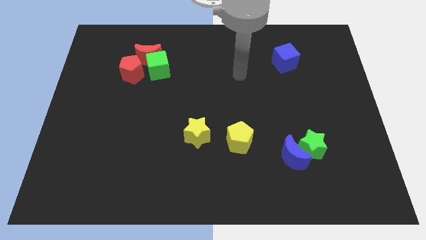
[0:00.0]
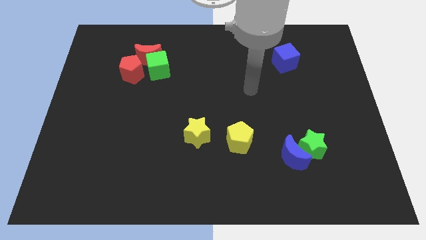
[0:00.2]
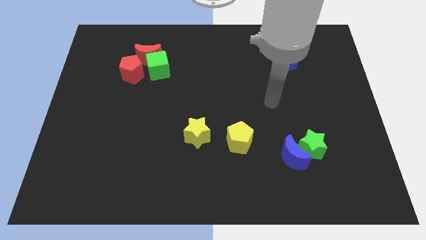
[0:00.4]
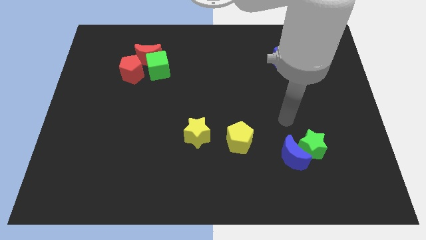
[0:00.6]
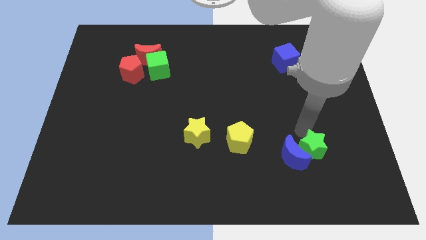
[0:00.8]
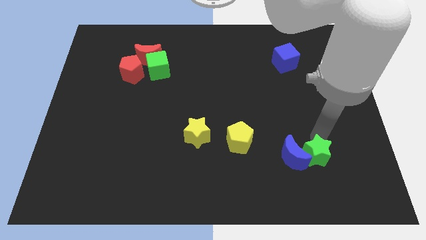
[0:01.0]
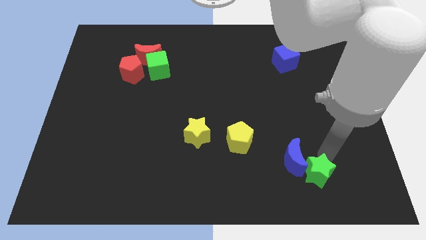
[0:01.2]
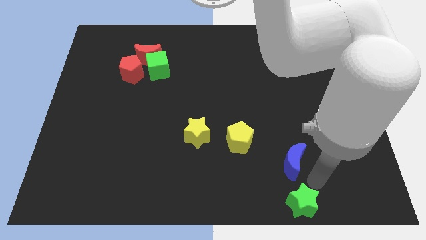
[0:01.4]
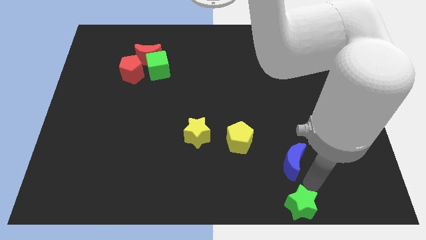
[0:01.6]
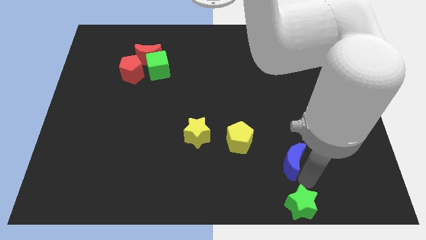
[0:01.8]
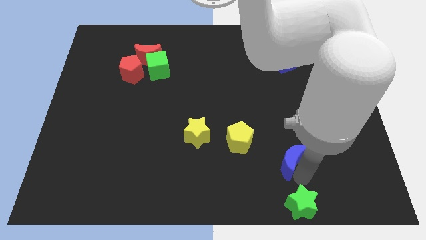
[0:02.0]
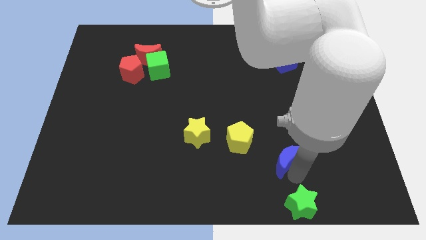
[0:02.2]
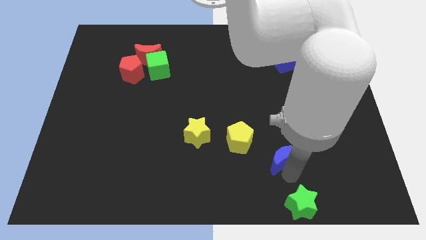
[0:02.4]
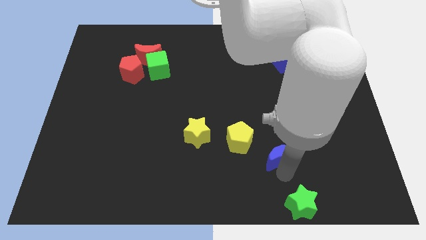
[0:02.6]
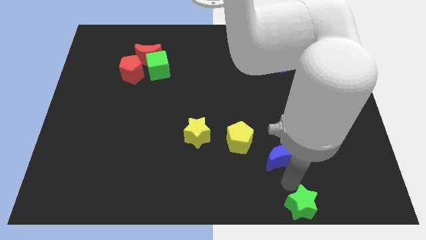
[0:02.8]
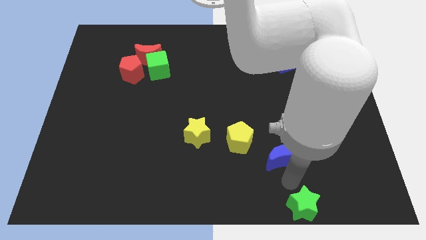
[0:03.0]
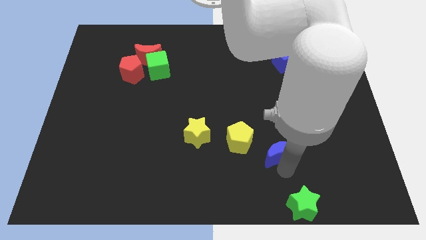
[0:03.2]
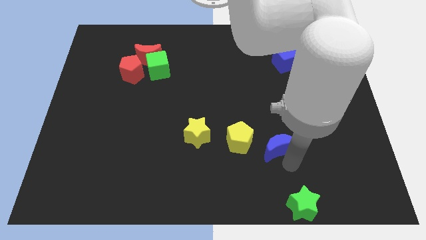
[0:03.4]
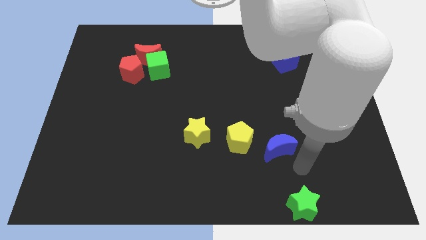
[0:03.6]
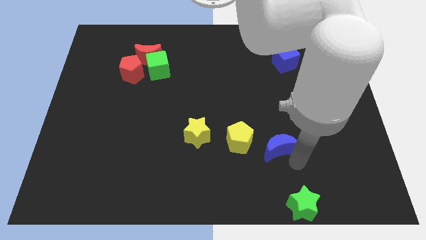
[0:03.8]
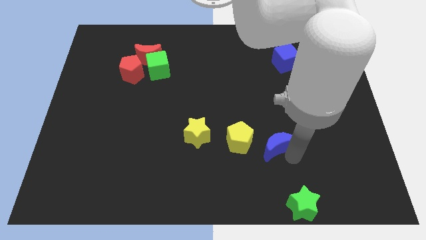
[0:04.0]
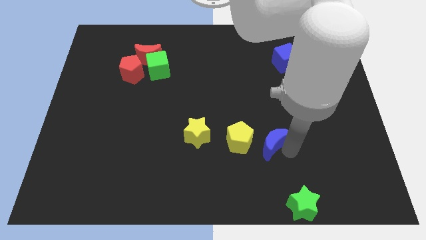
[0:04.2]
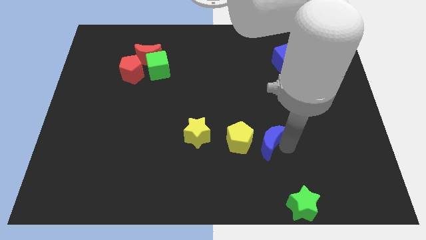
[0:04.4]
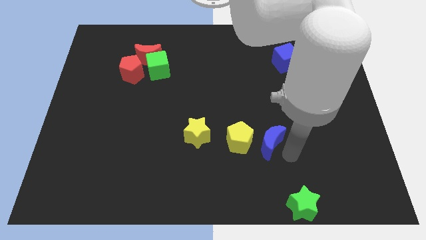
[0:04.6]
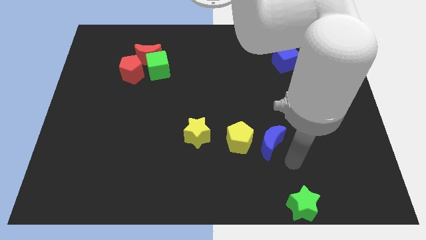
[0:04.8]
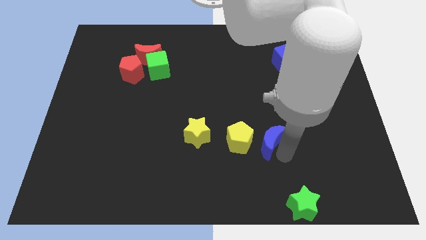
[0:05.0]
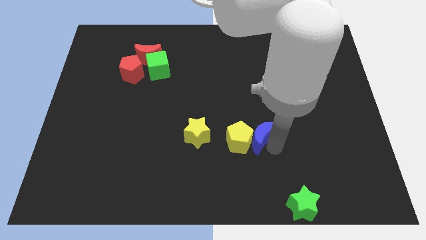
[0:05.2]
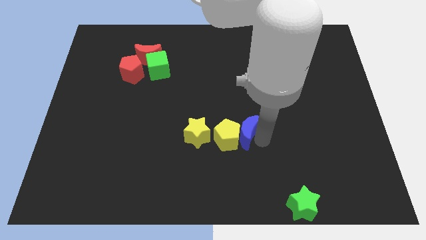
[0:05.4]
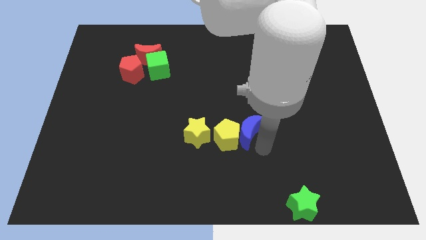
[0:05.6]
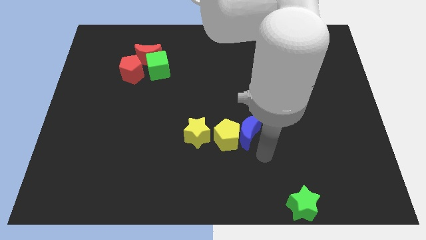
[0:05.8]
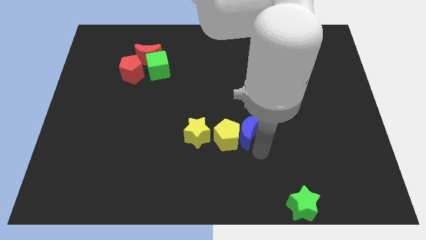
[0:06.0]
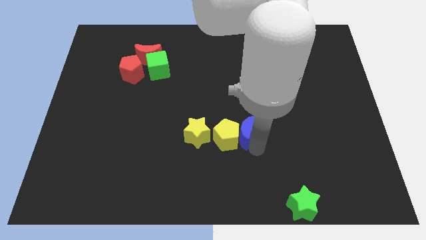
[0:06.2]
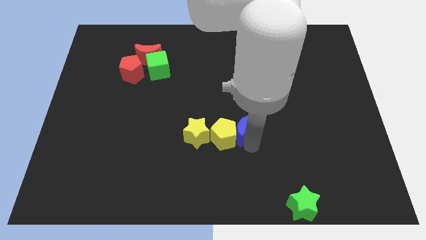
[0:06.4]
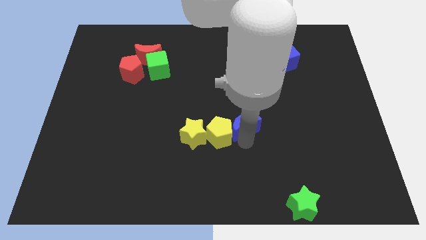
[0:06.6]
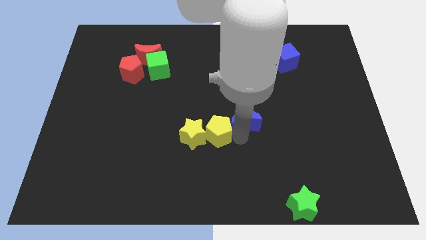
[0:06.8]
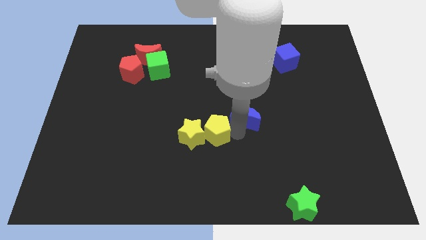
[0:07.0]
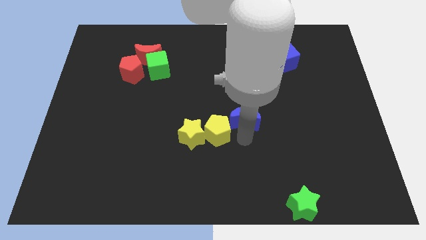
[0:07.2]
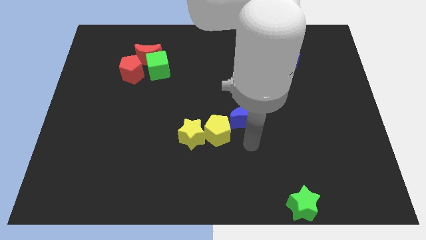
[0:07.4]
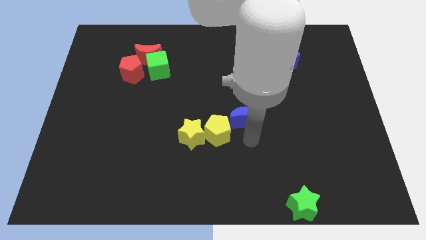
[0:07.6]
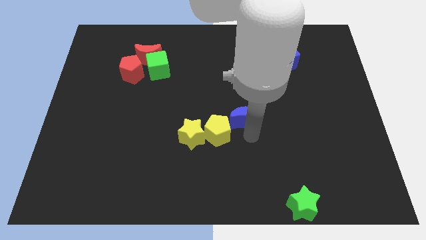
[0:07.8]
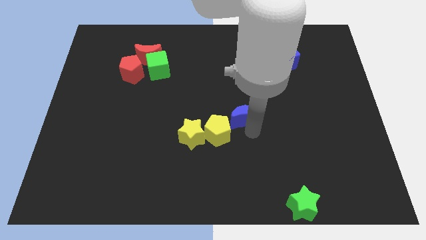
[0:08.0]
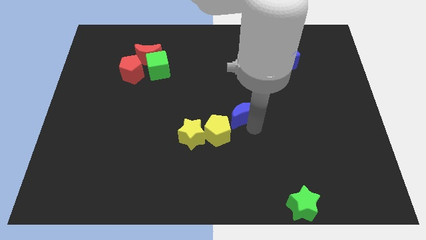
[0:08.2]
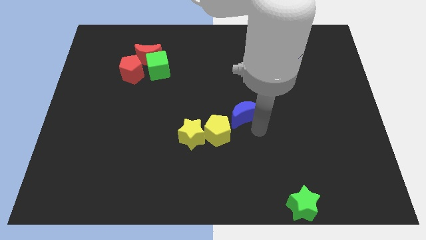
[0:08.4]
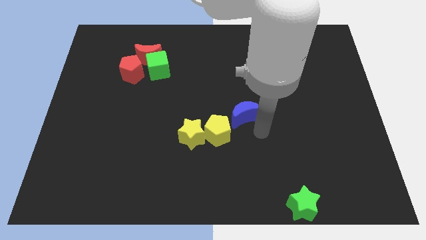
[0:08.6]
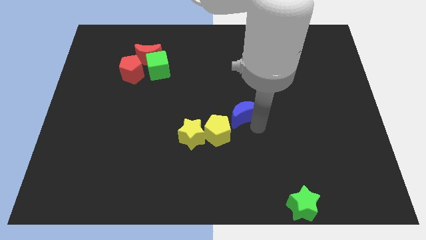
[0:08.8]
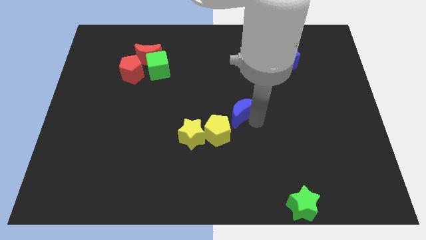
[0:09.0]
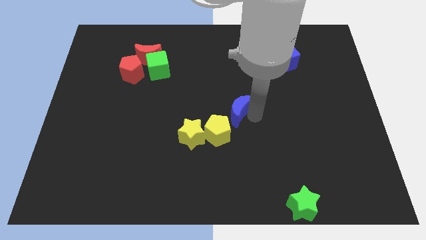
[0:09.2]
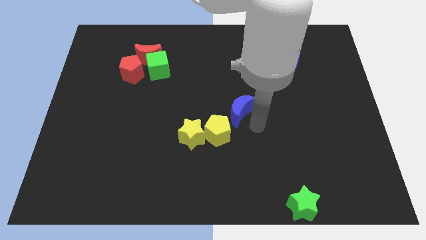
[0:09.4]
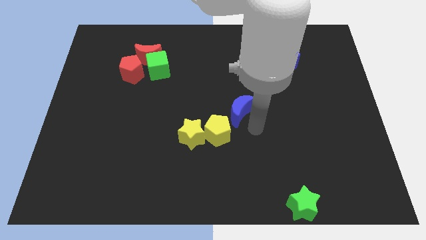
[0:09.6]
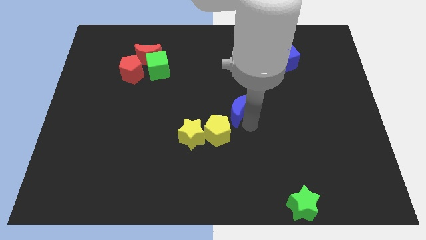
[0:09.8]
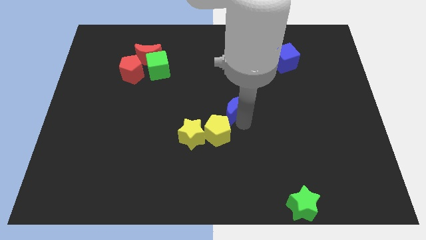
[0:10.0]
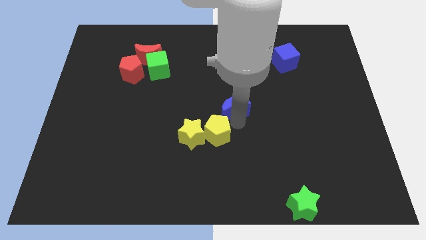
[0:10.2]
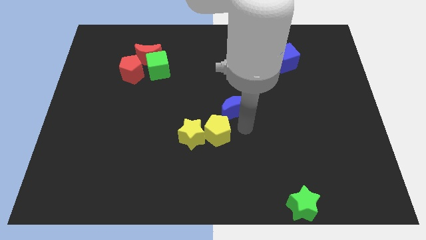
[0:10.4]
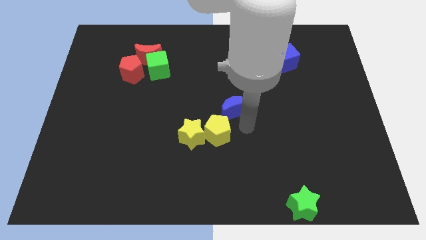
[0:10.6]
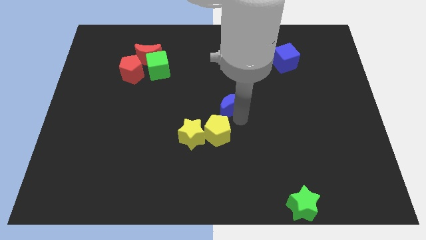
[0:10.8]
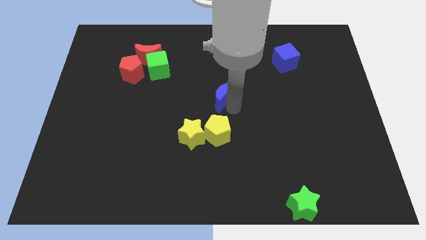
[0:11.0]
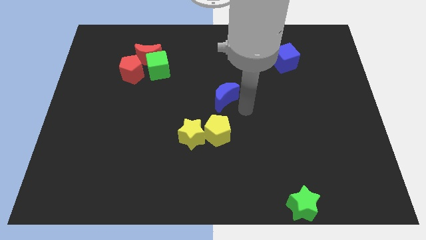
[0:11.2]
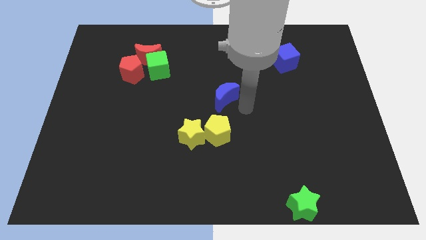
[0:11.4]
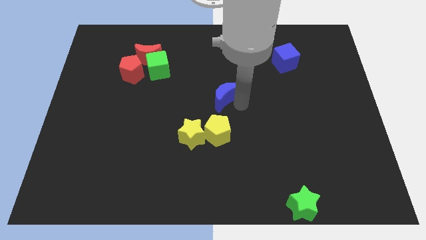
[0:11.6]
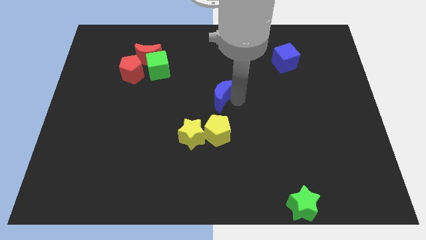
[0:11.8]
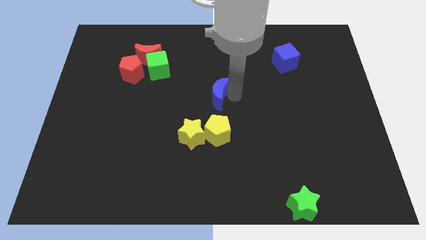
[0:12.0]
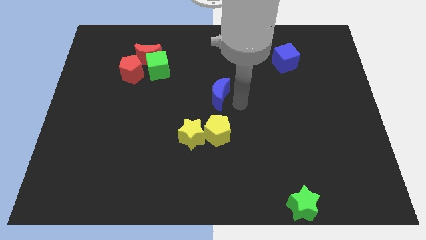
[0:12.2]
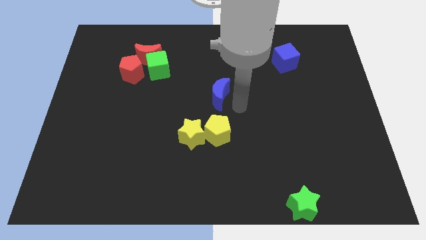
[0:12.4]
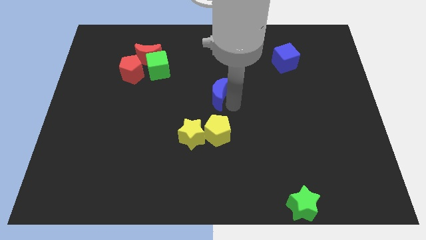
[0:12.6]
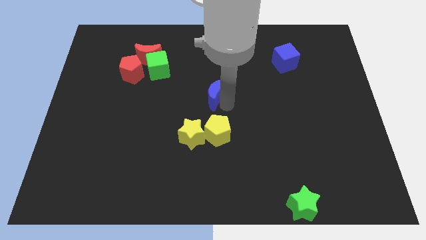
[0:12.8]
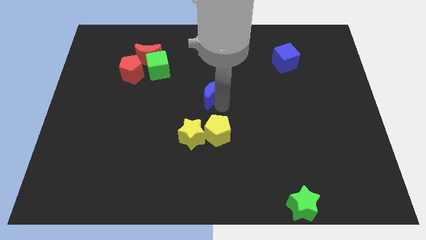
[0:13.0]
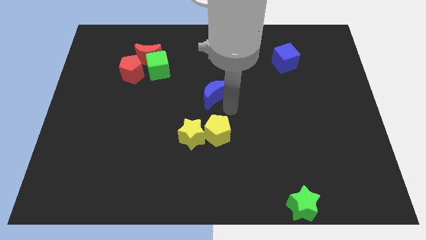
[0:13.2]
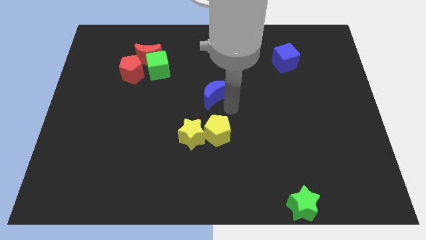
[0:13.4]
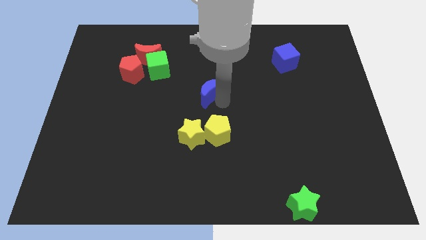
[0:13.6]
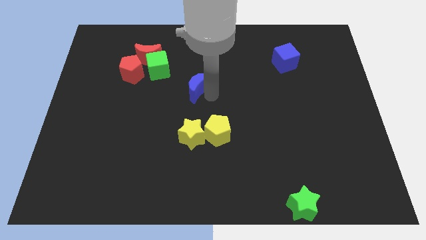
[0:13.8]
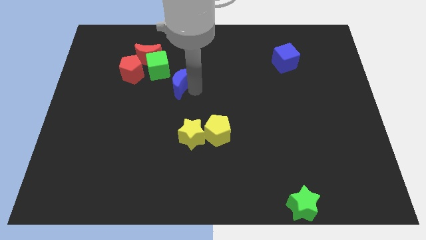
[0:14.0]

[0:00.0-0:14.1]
move the blue moon to the bottom right of the red moon
